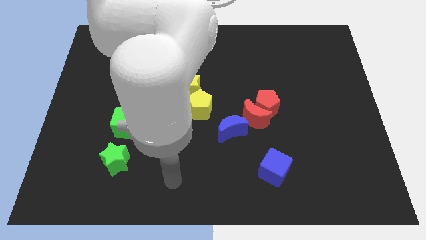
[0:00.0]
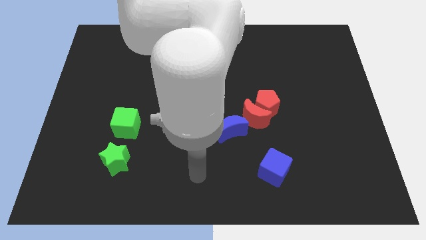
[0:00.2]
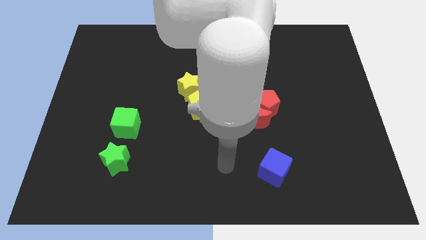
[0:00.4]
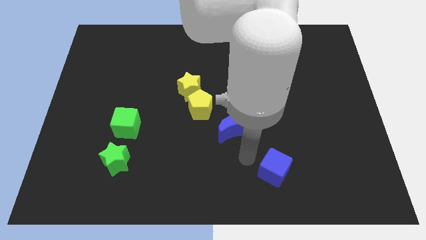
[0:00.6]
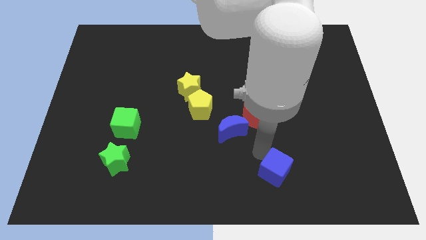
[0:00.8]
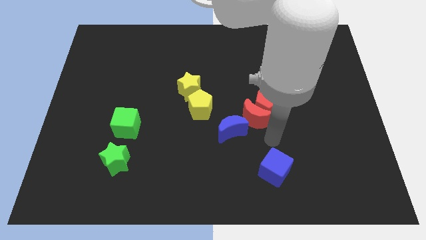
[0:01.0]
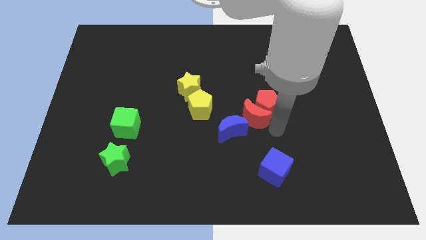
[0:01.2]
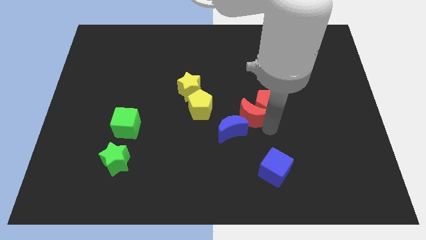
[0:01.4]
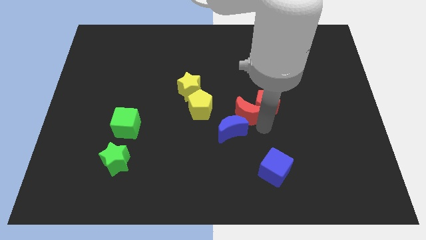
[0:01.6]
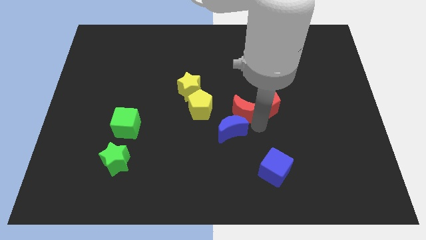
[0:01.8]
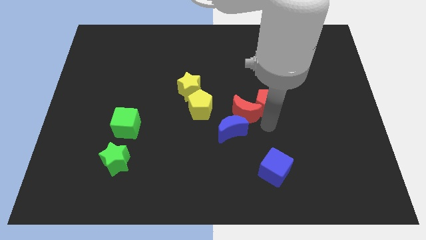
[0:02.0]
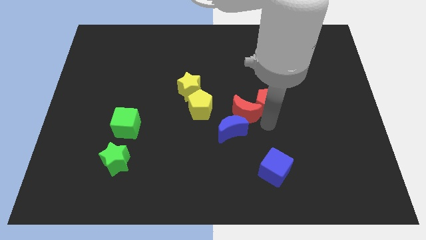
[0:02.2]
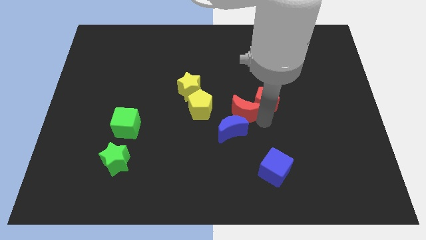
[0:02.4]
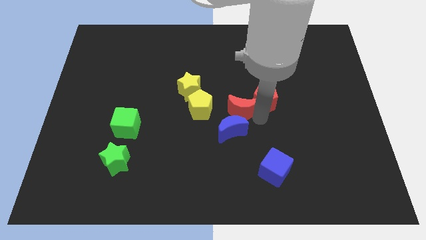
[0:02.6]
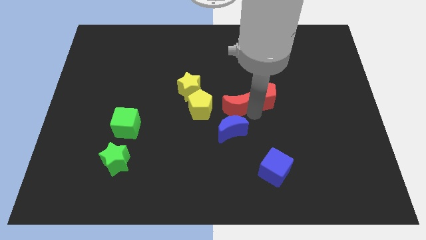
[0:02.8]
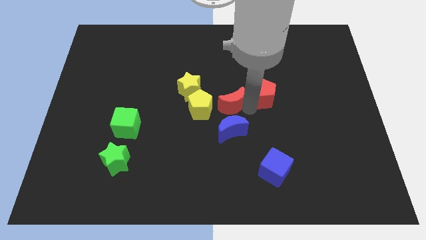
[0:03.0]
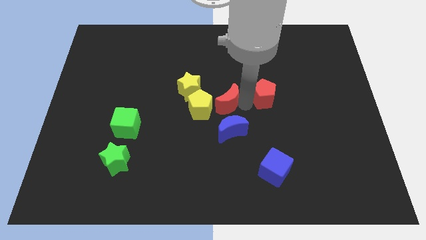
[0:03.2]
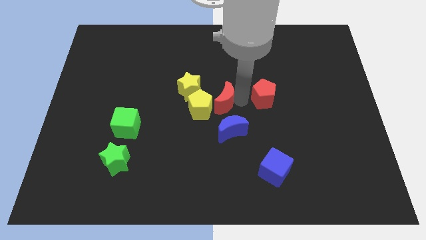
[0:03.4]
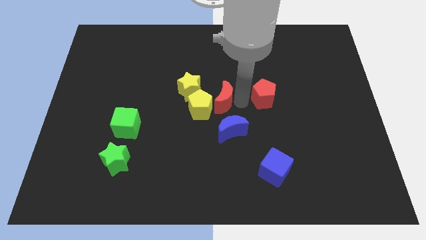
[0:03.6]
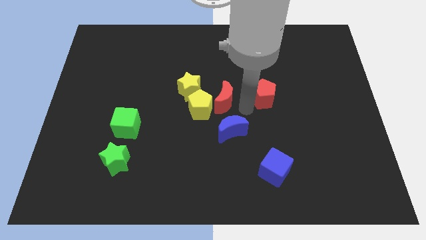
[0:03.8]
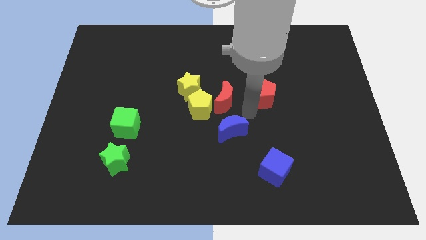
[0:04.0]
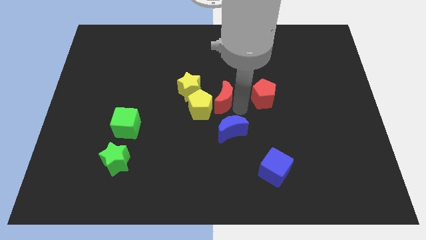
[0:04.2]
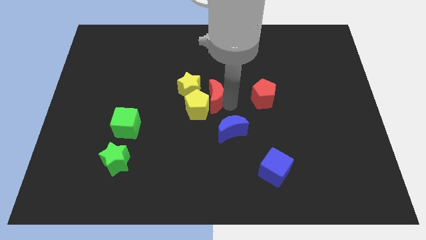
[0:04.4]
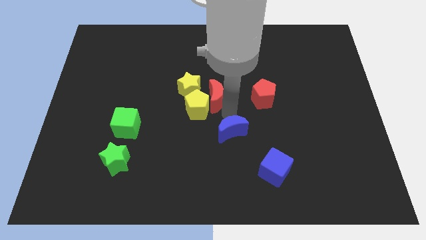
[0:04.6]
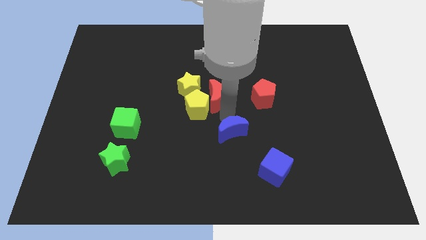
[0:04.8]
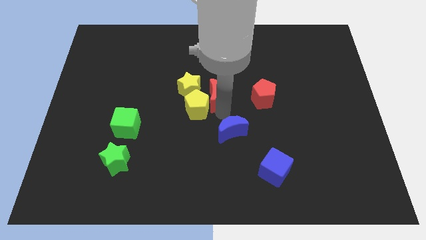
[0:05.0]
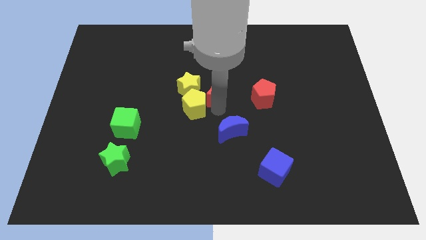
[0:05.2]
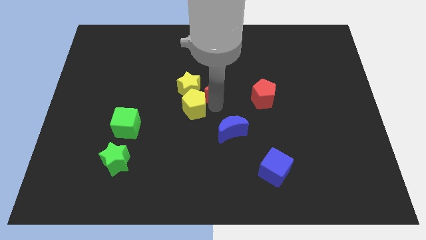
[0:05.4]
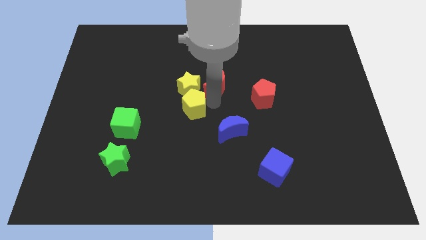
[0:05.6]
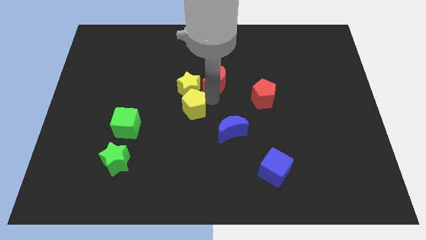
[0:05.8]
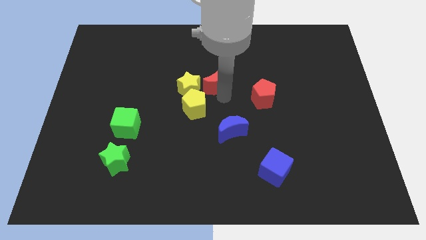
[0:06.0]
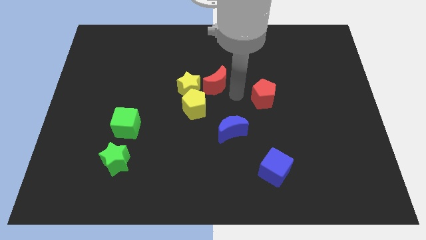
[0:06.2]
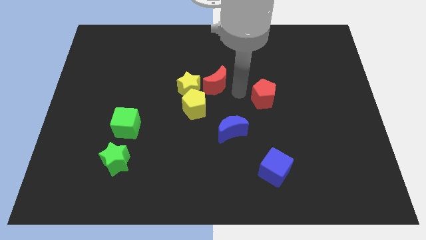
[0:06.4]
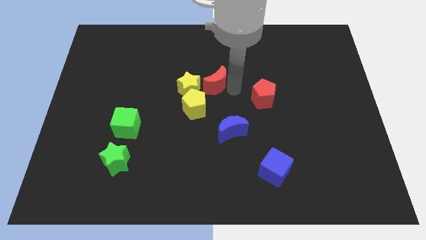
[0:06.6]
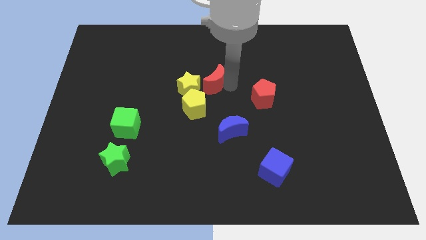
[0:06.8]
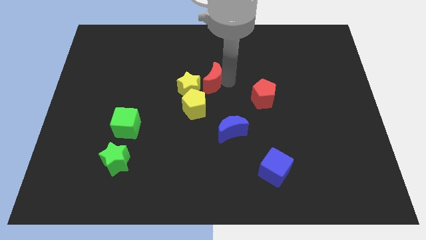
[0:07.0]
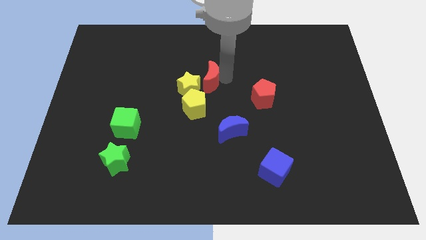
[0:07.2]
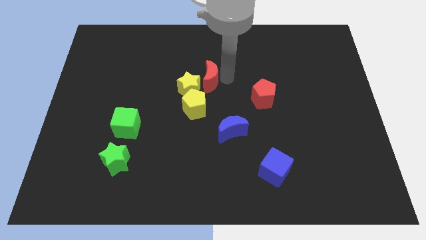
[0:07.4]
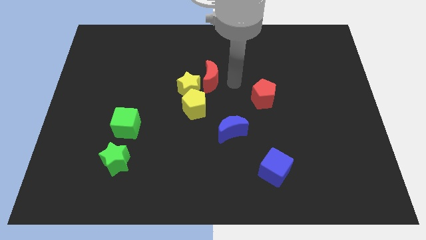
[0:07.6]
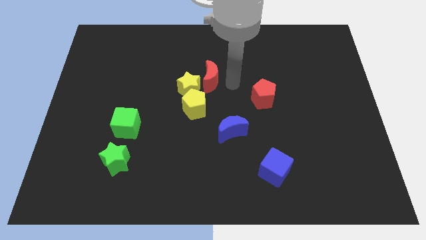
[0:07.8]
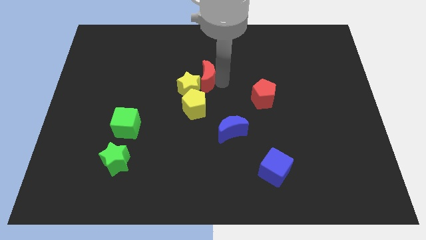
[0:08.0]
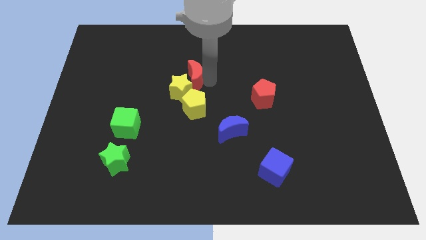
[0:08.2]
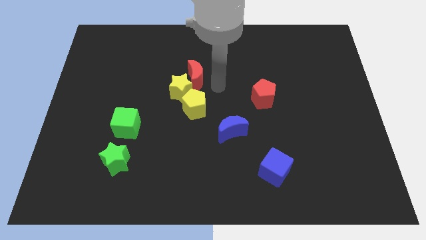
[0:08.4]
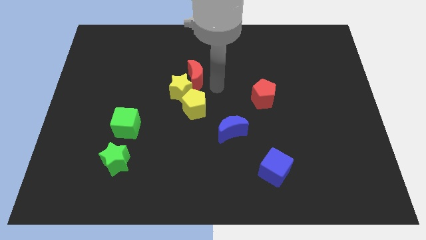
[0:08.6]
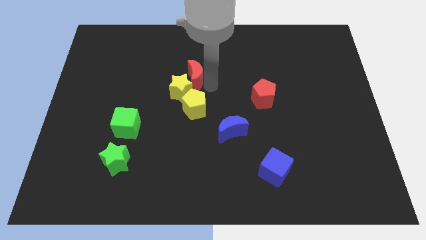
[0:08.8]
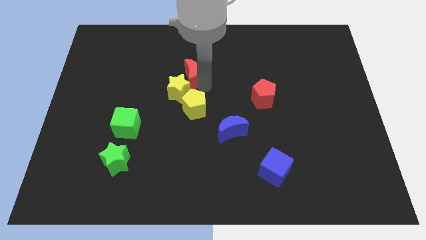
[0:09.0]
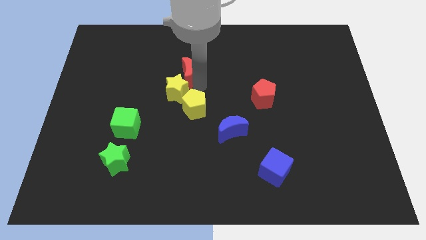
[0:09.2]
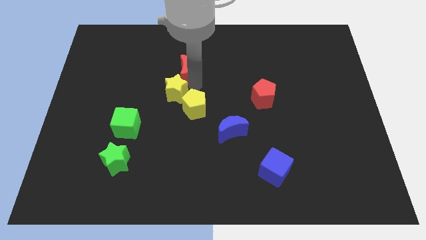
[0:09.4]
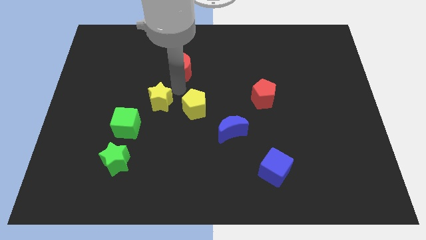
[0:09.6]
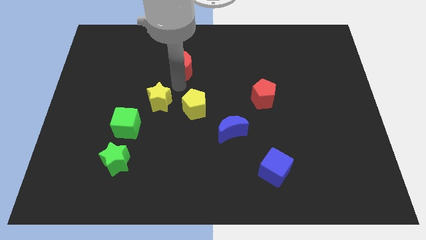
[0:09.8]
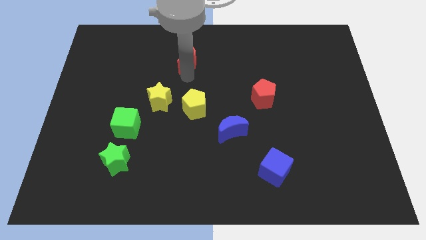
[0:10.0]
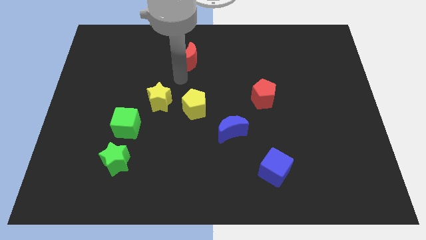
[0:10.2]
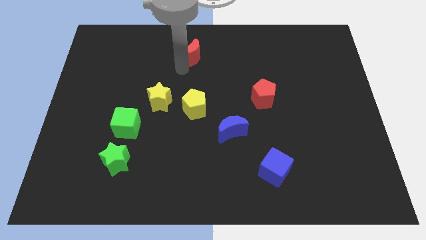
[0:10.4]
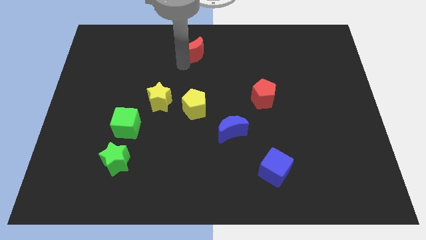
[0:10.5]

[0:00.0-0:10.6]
push the red moon to the top side
